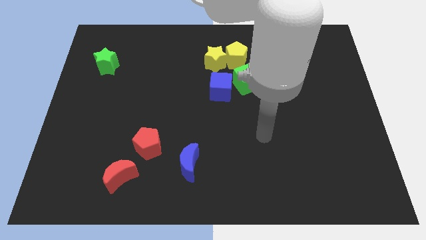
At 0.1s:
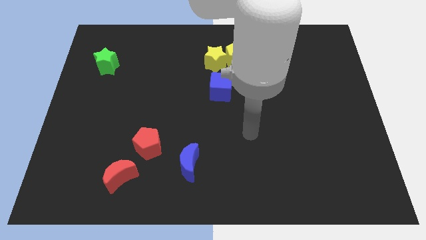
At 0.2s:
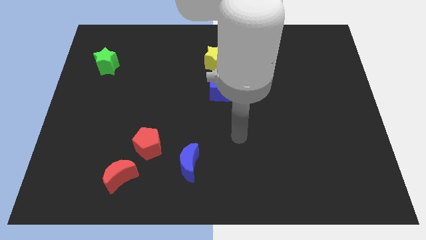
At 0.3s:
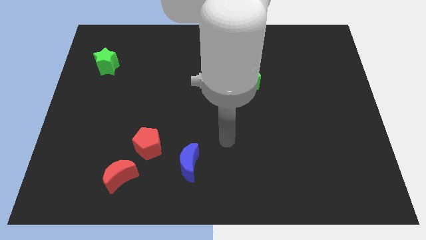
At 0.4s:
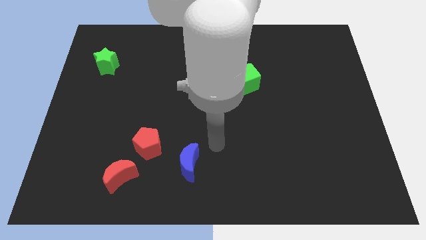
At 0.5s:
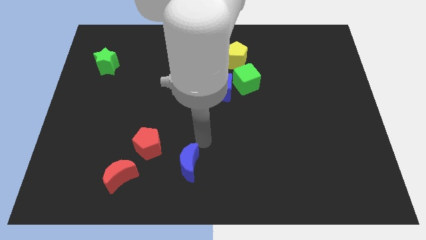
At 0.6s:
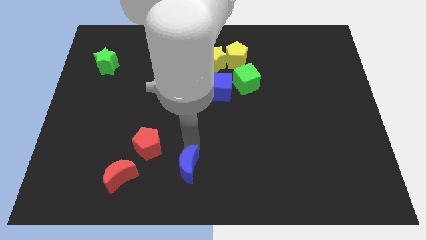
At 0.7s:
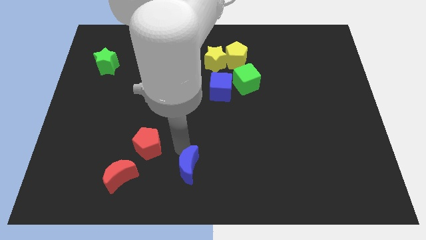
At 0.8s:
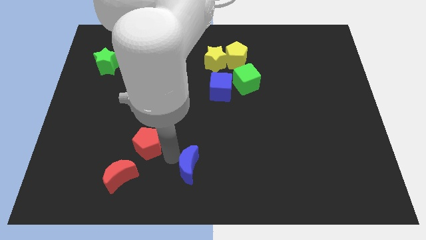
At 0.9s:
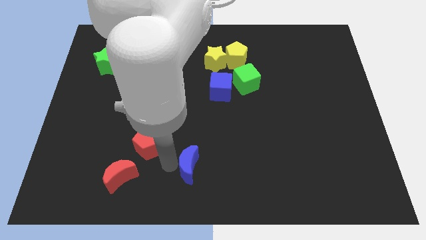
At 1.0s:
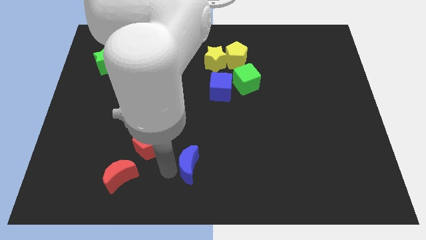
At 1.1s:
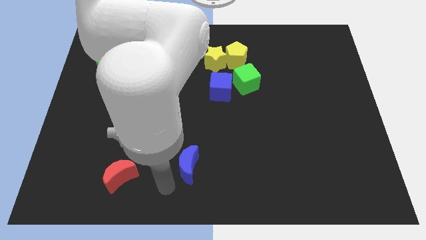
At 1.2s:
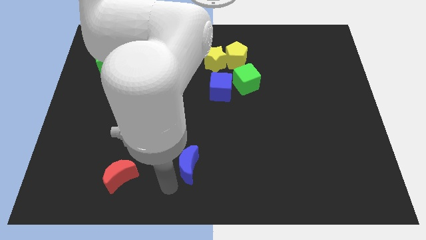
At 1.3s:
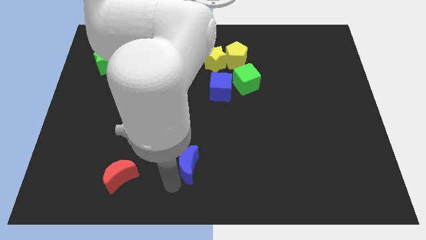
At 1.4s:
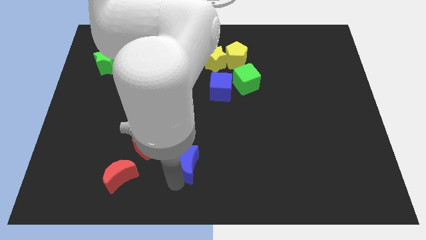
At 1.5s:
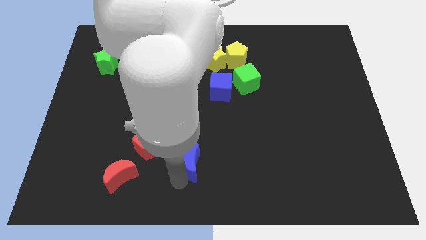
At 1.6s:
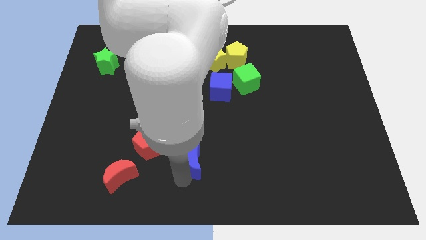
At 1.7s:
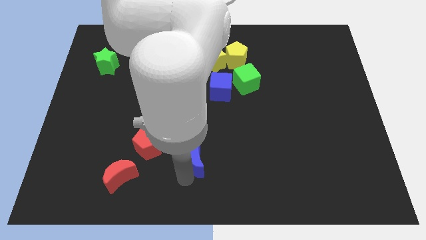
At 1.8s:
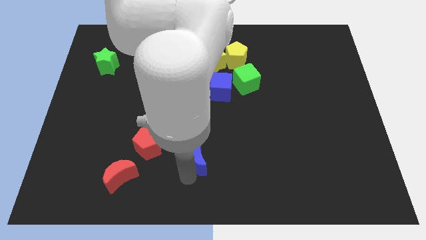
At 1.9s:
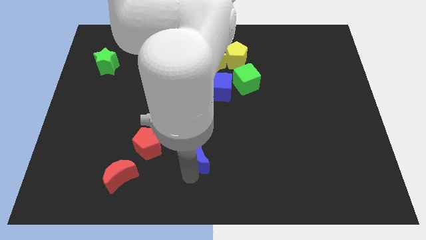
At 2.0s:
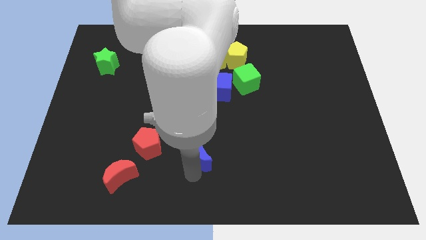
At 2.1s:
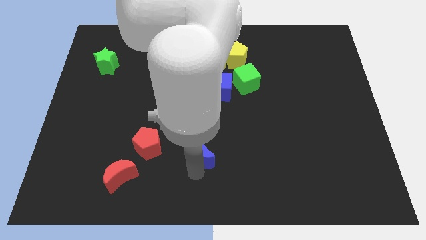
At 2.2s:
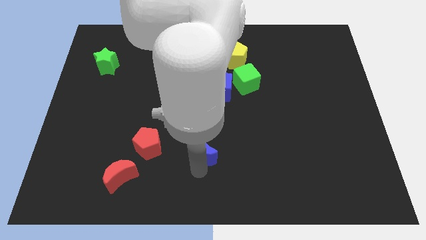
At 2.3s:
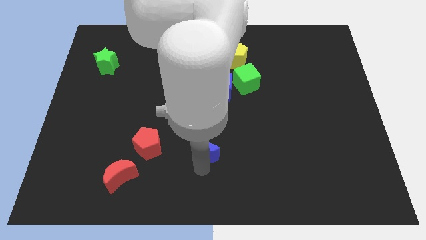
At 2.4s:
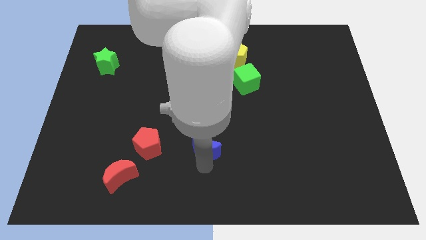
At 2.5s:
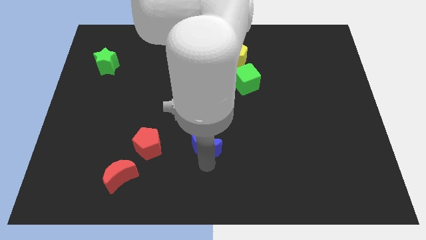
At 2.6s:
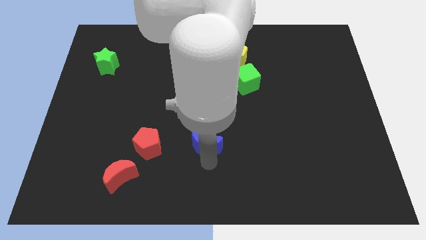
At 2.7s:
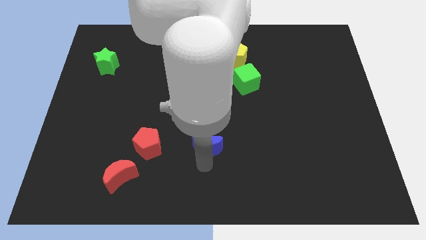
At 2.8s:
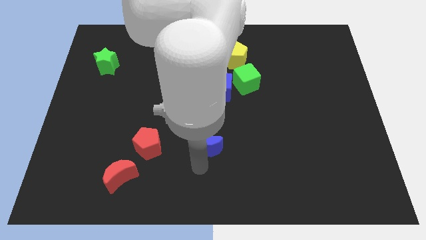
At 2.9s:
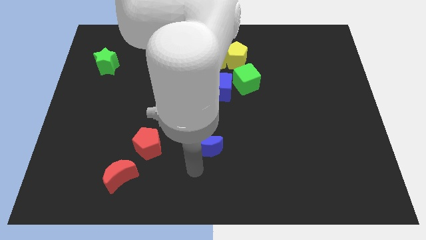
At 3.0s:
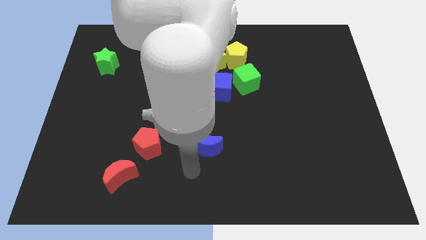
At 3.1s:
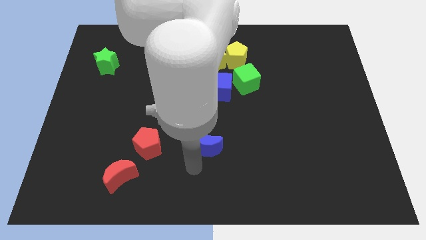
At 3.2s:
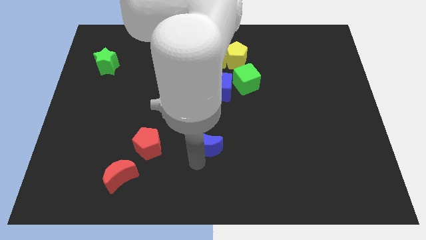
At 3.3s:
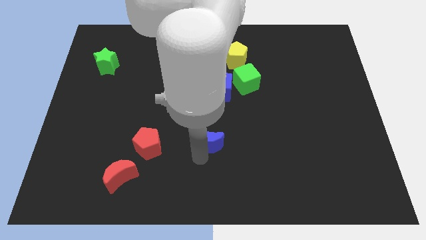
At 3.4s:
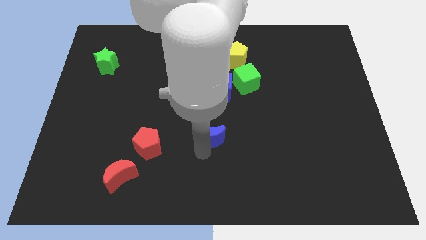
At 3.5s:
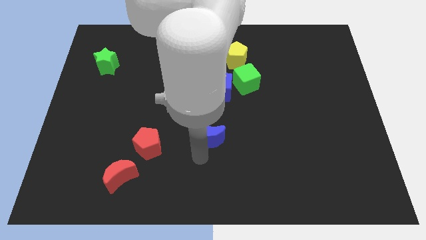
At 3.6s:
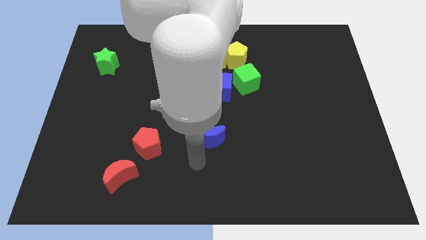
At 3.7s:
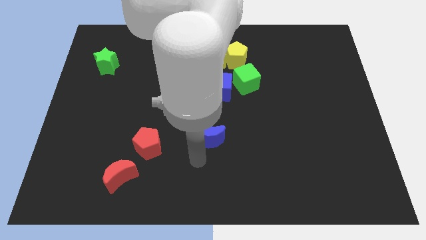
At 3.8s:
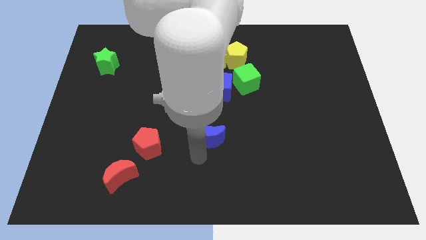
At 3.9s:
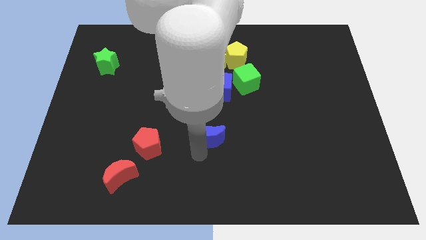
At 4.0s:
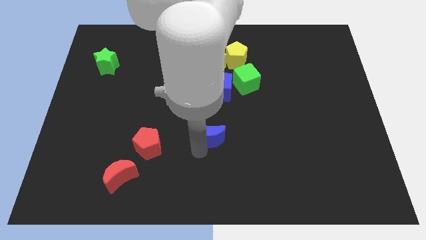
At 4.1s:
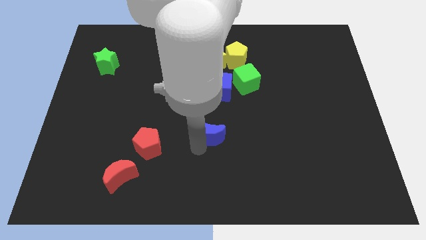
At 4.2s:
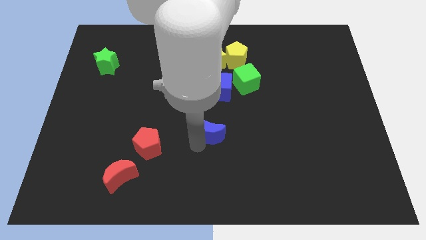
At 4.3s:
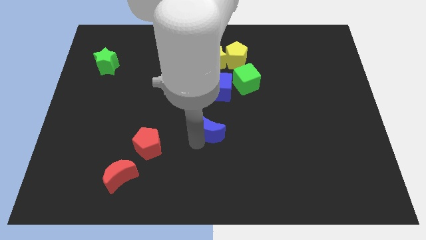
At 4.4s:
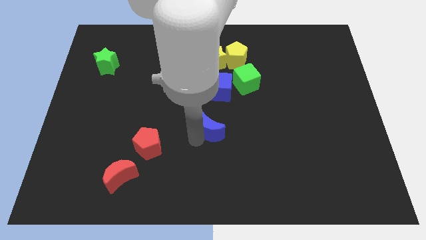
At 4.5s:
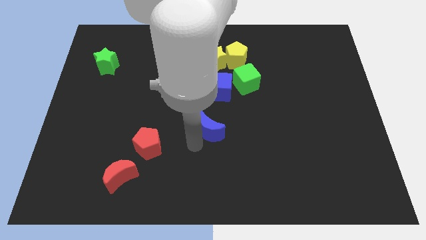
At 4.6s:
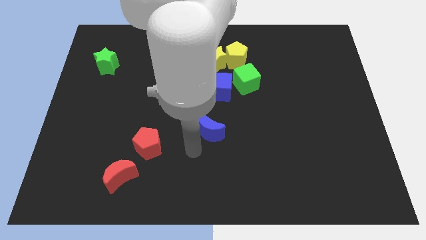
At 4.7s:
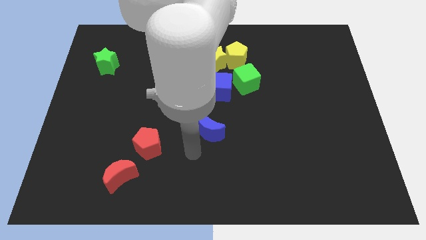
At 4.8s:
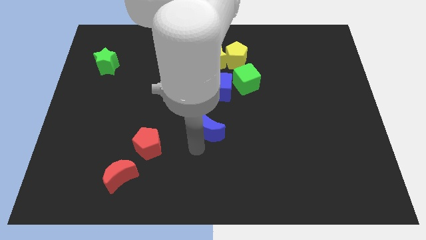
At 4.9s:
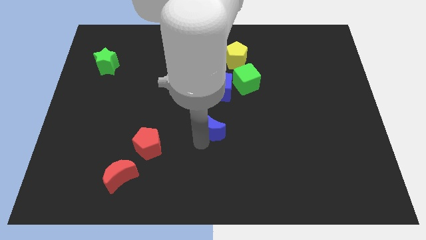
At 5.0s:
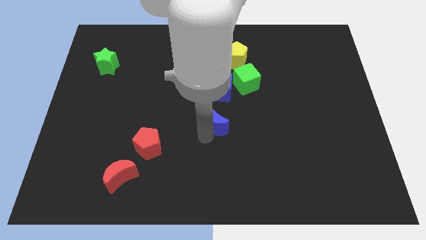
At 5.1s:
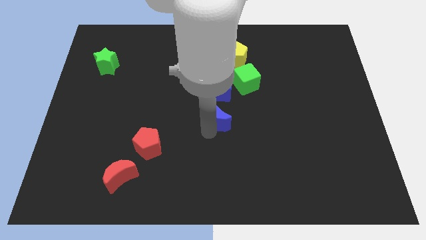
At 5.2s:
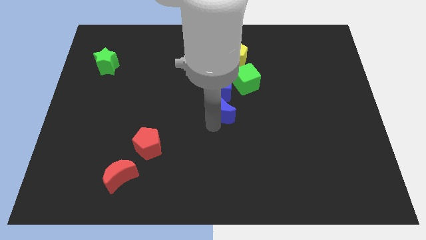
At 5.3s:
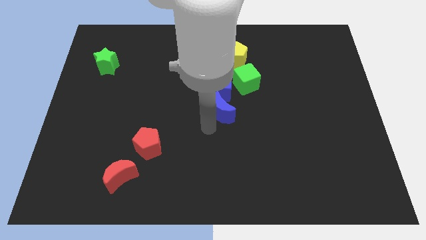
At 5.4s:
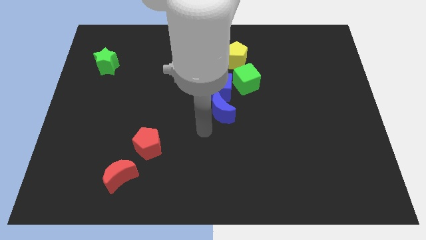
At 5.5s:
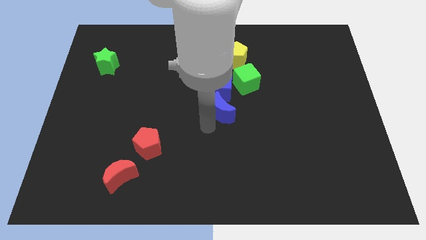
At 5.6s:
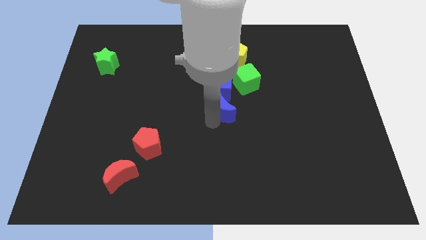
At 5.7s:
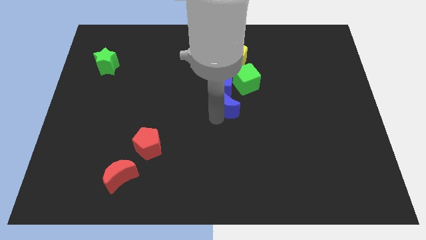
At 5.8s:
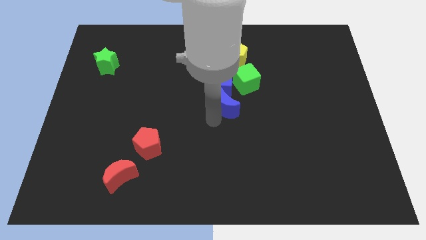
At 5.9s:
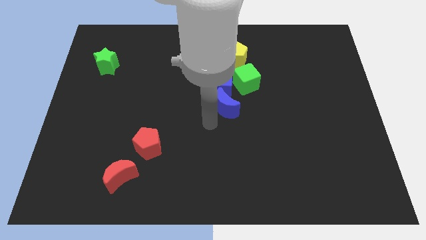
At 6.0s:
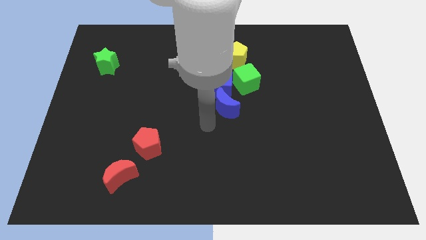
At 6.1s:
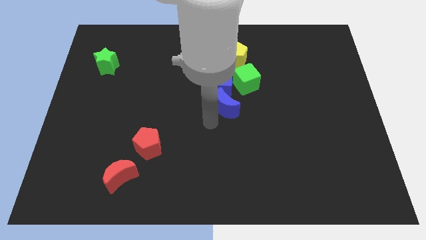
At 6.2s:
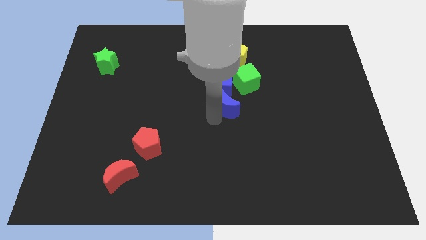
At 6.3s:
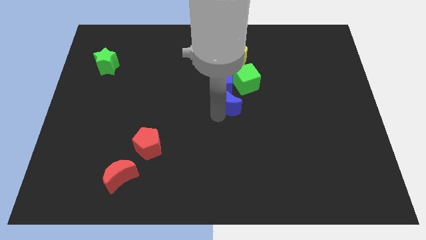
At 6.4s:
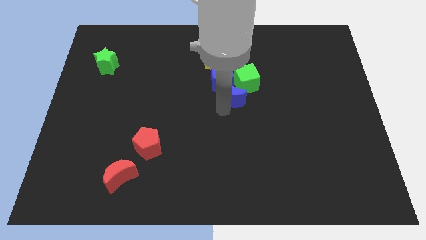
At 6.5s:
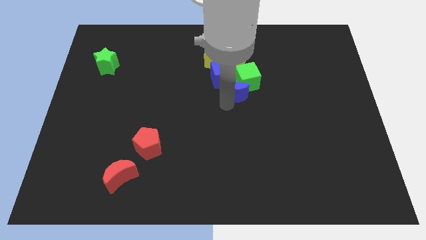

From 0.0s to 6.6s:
move the blue moon close to the green cube
